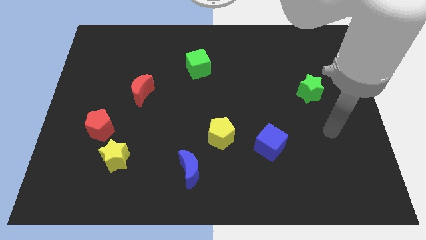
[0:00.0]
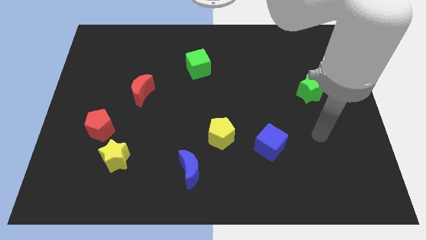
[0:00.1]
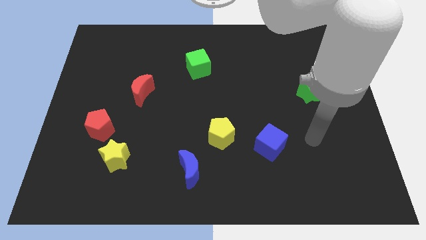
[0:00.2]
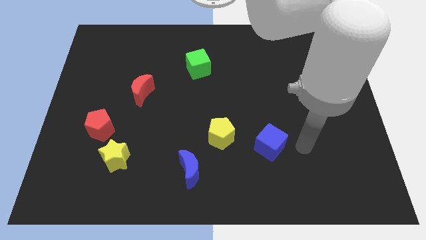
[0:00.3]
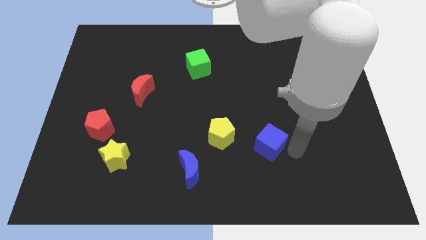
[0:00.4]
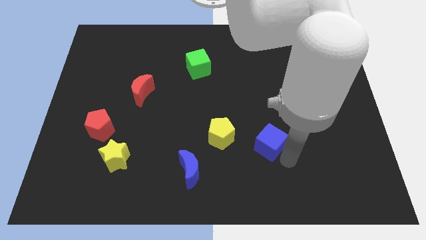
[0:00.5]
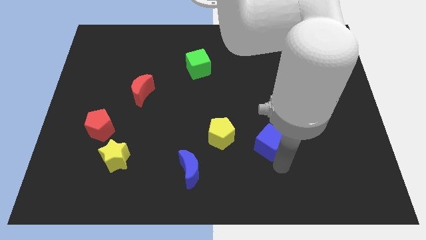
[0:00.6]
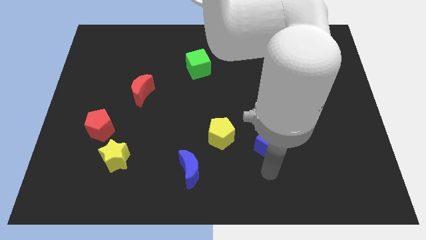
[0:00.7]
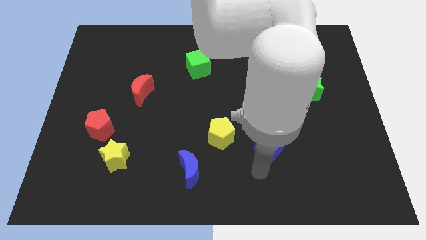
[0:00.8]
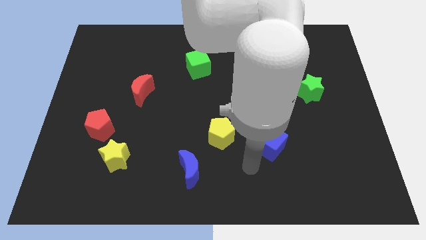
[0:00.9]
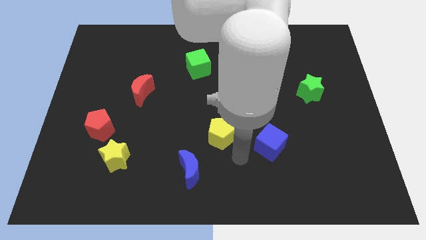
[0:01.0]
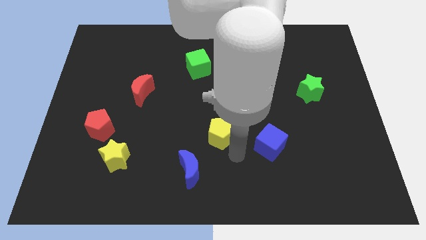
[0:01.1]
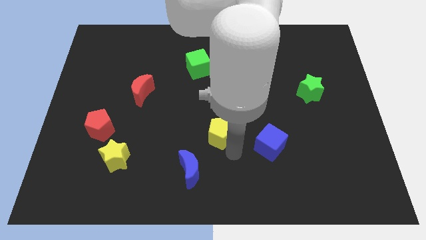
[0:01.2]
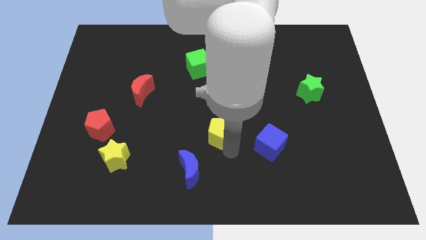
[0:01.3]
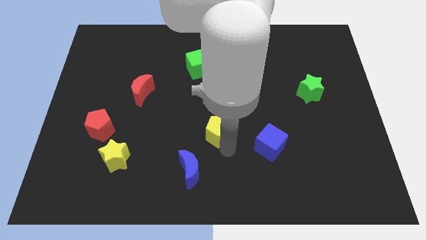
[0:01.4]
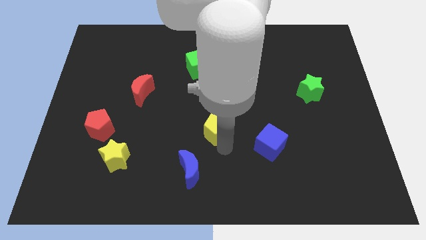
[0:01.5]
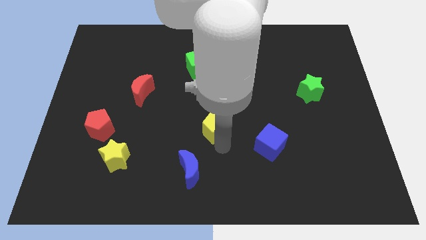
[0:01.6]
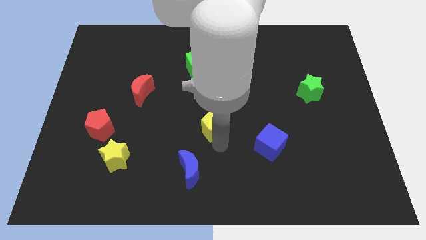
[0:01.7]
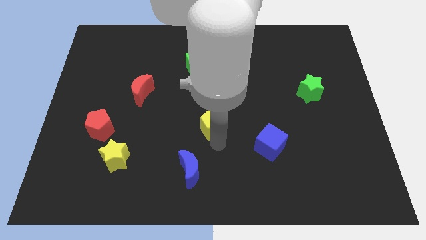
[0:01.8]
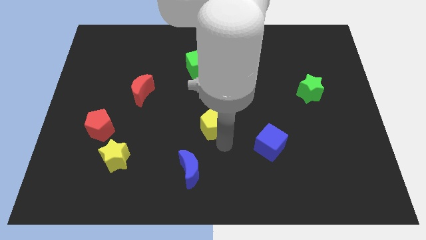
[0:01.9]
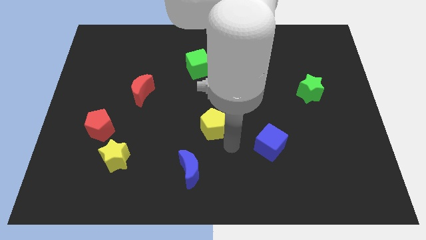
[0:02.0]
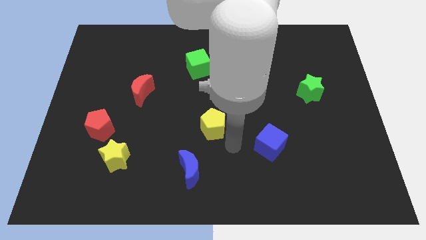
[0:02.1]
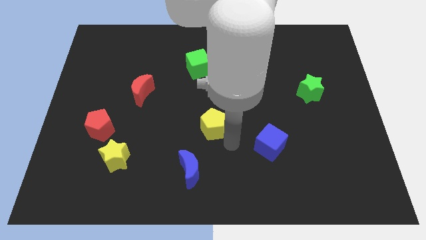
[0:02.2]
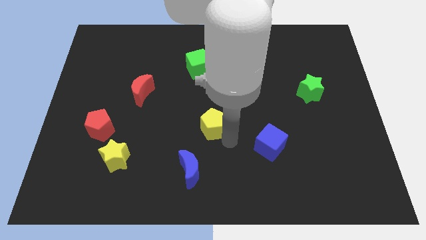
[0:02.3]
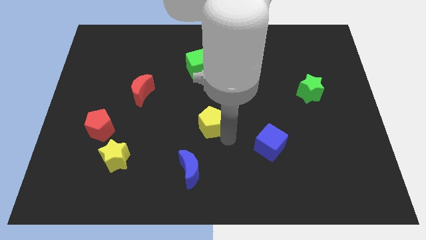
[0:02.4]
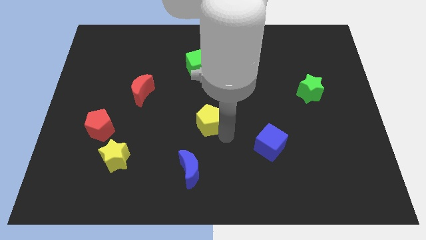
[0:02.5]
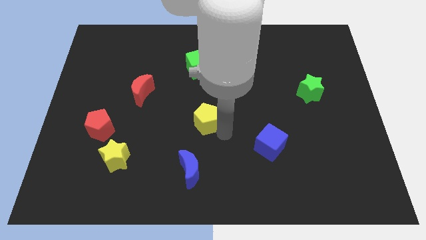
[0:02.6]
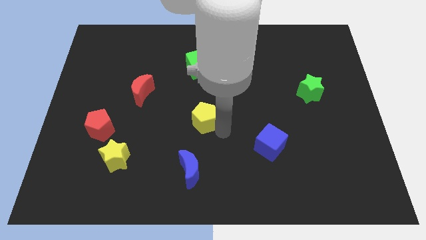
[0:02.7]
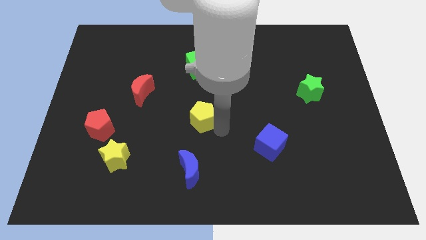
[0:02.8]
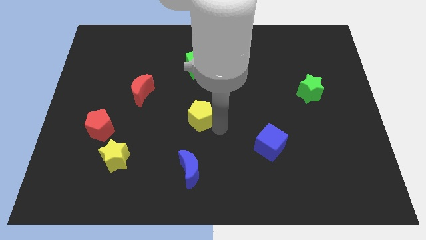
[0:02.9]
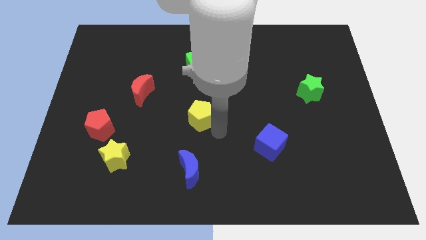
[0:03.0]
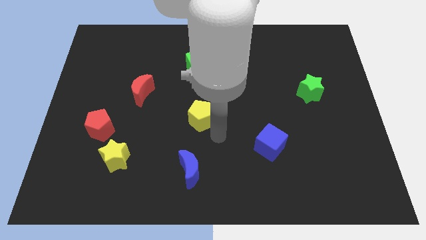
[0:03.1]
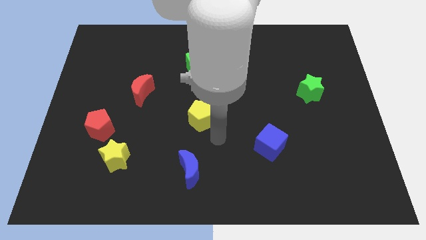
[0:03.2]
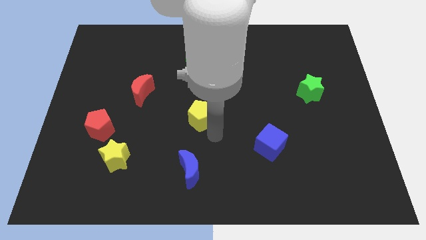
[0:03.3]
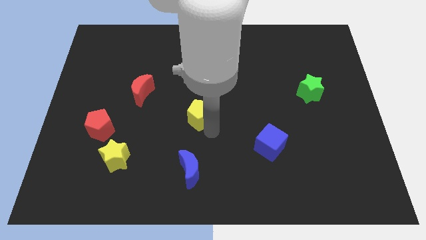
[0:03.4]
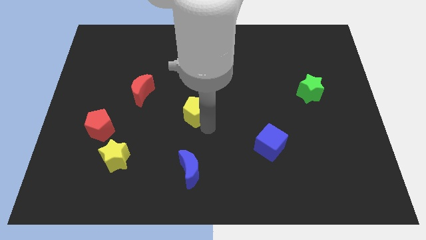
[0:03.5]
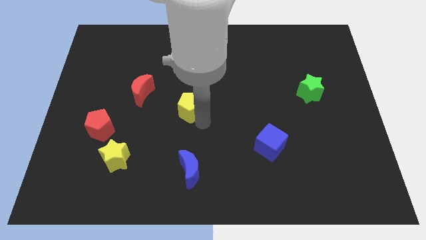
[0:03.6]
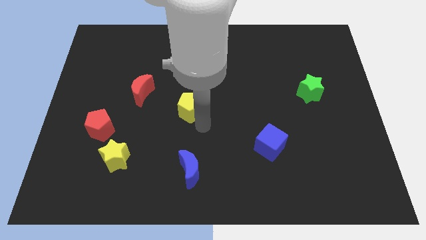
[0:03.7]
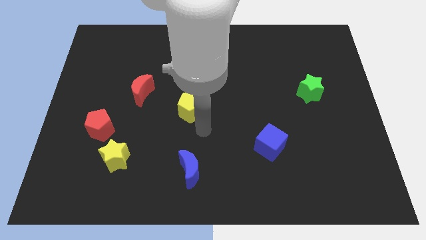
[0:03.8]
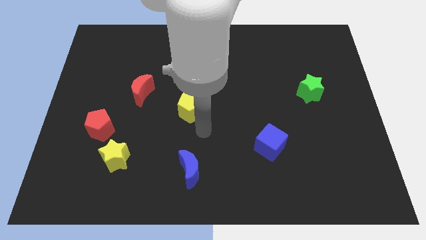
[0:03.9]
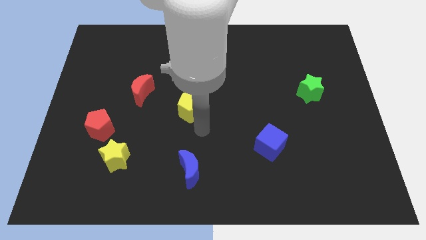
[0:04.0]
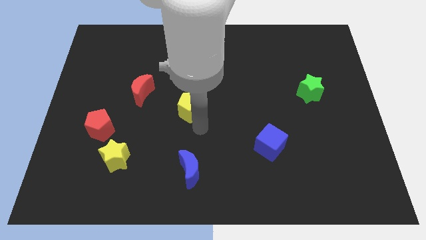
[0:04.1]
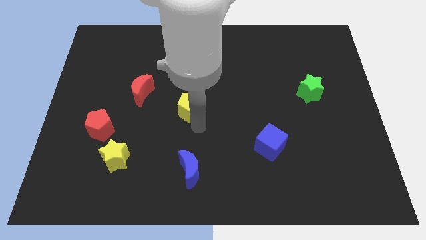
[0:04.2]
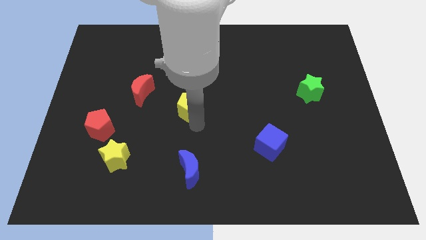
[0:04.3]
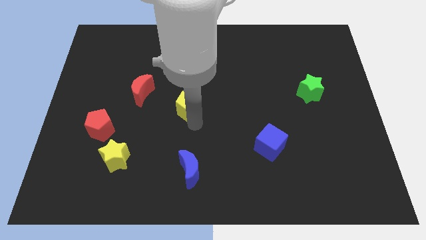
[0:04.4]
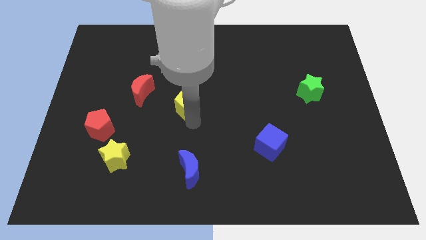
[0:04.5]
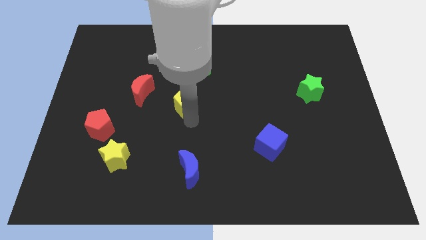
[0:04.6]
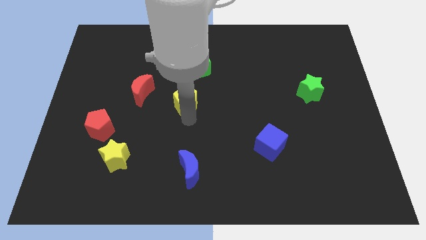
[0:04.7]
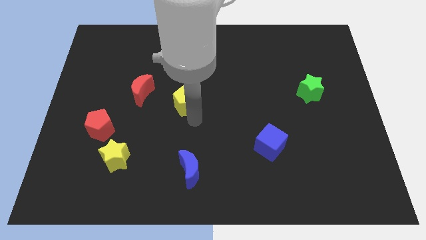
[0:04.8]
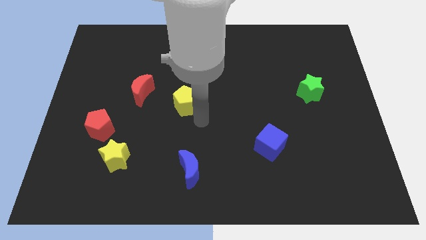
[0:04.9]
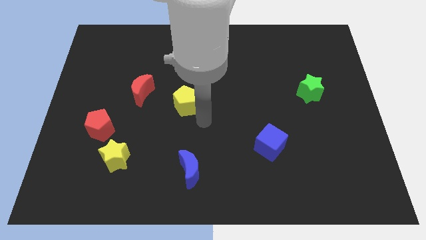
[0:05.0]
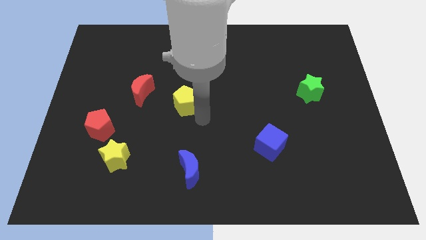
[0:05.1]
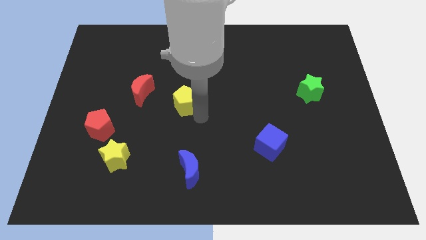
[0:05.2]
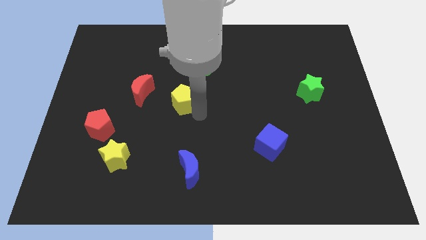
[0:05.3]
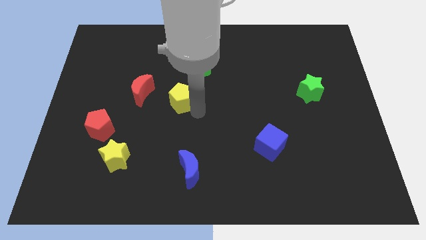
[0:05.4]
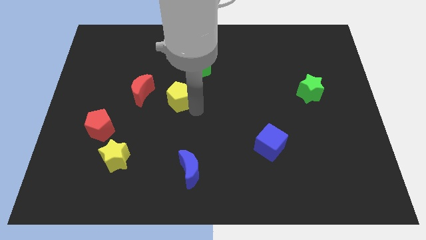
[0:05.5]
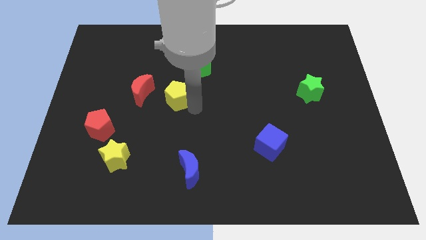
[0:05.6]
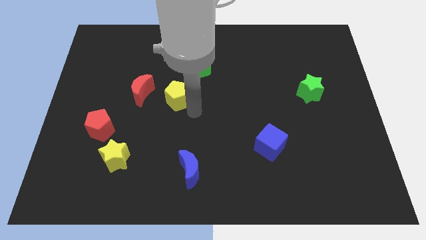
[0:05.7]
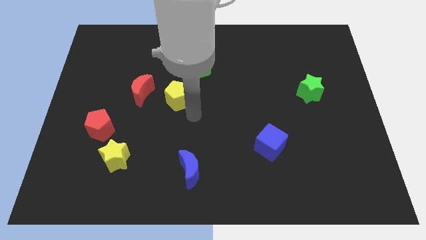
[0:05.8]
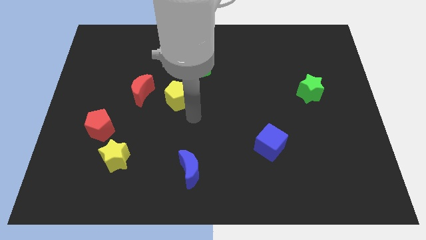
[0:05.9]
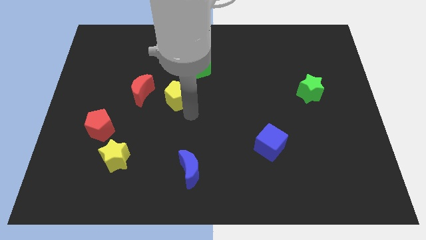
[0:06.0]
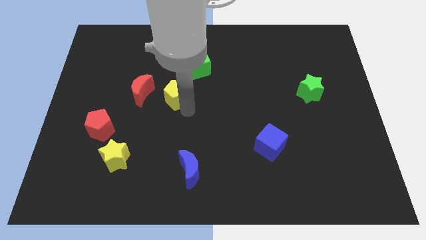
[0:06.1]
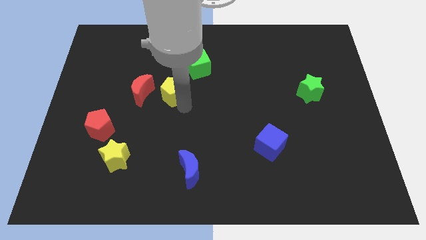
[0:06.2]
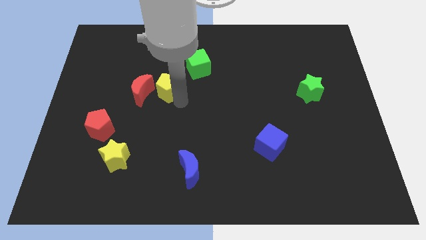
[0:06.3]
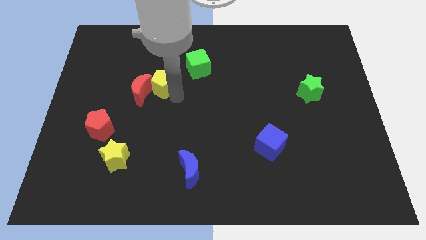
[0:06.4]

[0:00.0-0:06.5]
move the yellow pentagon up and to the left diagonally

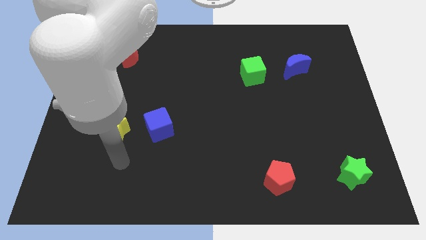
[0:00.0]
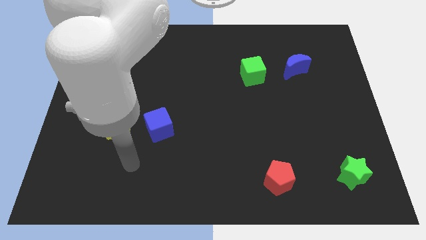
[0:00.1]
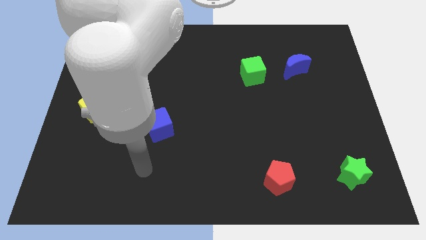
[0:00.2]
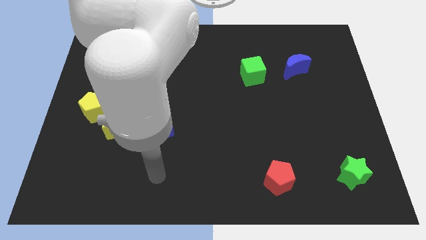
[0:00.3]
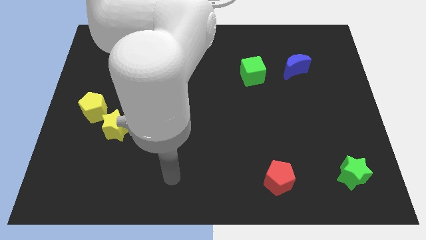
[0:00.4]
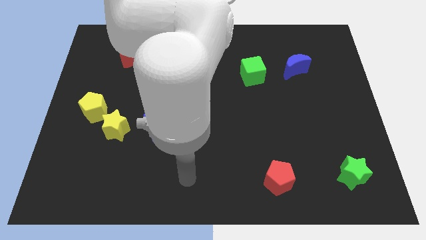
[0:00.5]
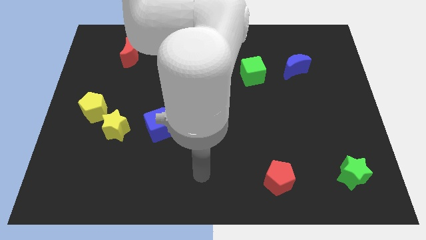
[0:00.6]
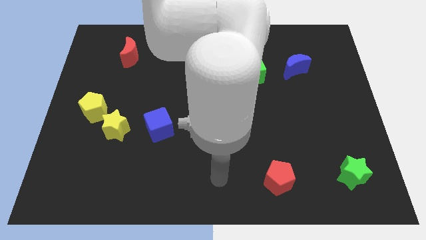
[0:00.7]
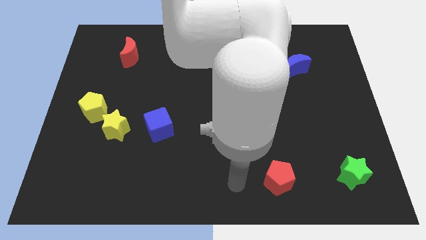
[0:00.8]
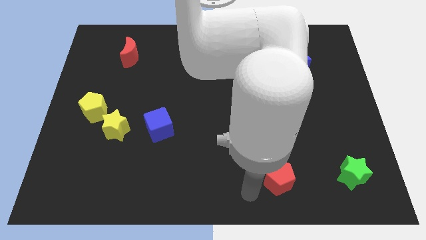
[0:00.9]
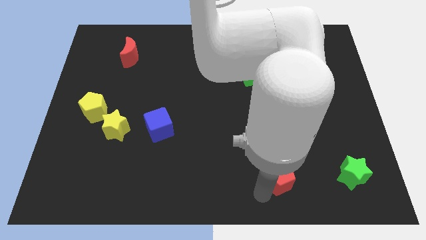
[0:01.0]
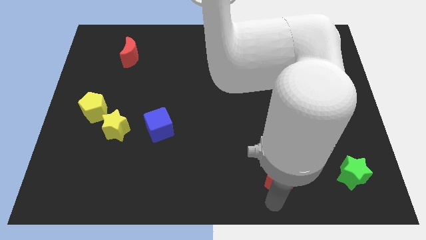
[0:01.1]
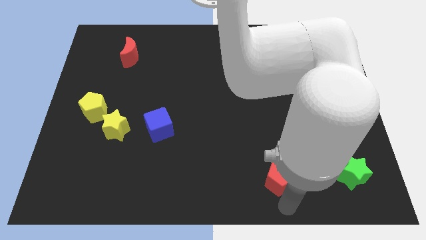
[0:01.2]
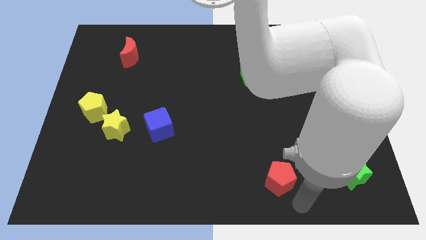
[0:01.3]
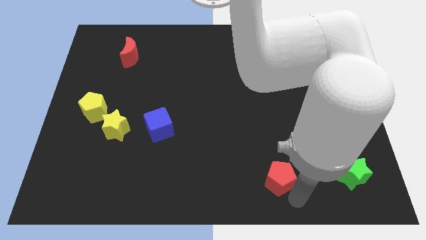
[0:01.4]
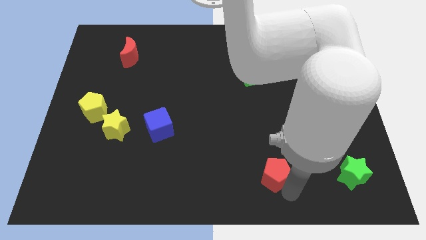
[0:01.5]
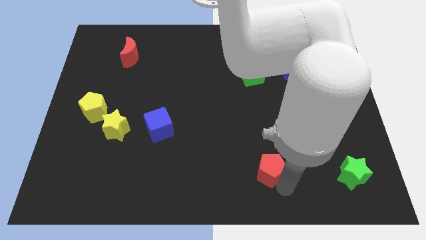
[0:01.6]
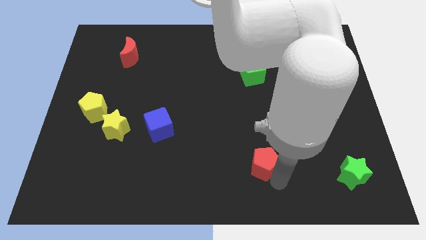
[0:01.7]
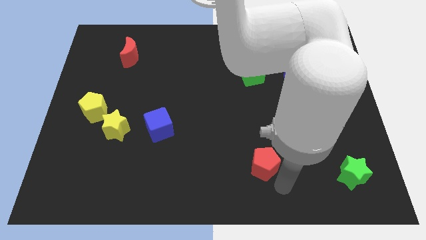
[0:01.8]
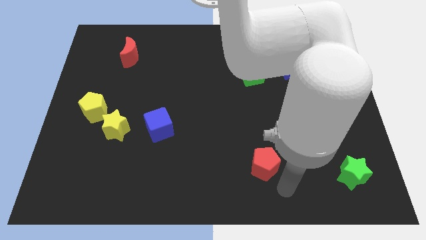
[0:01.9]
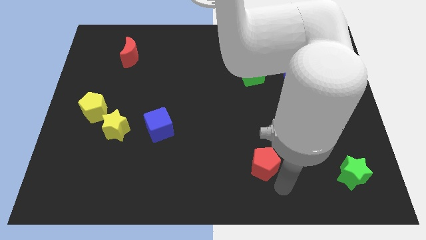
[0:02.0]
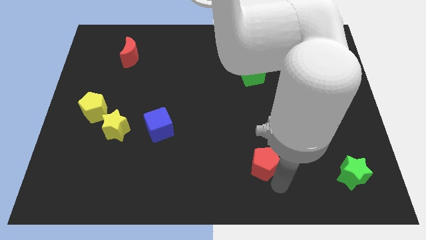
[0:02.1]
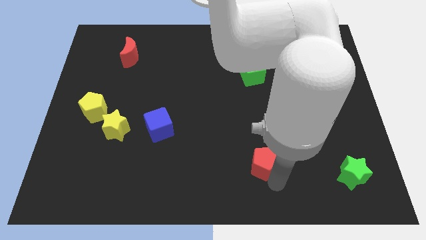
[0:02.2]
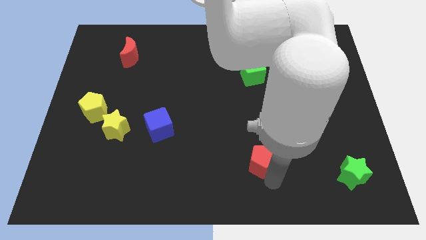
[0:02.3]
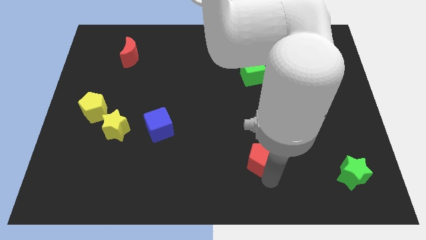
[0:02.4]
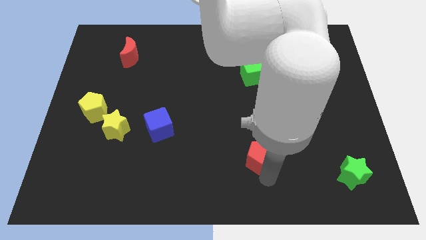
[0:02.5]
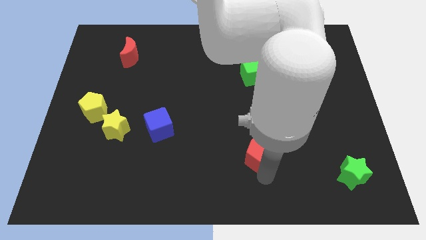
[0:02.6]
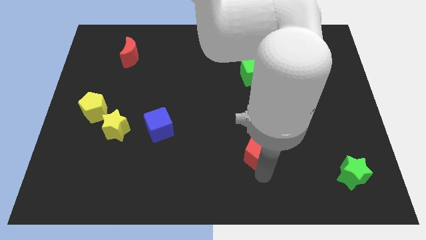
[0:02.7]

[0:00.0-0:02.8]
push the red pentagon upwards and then to the left somewhat
